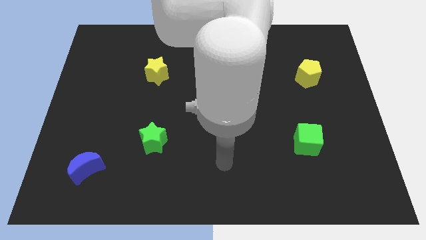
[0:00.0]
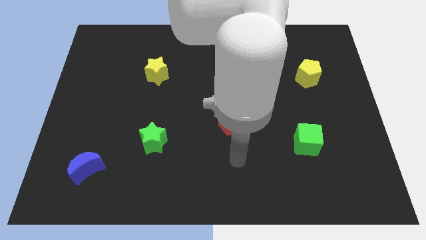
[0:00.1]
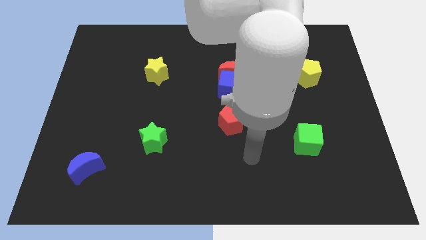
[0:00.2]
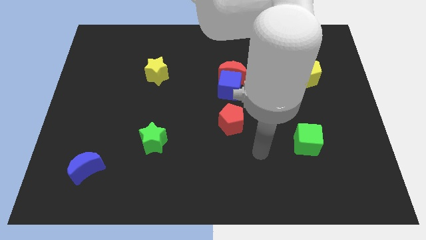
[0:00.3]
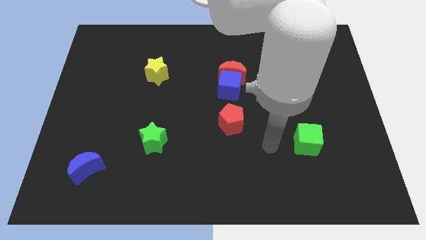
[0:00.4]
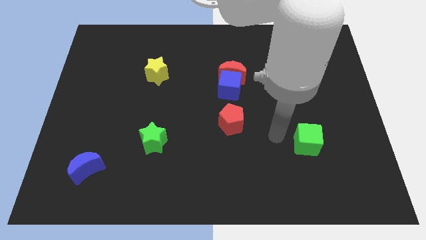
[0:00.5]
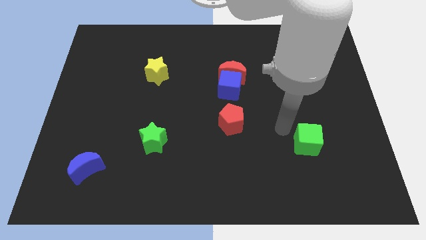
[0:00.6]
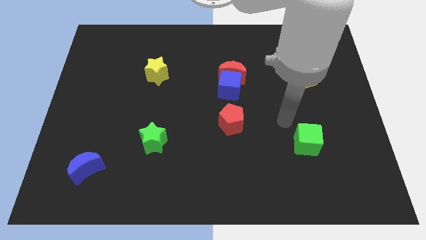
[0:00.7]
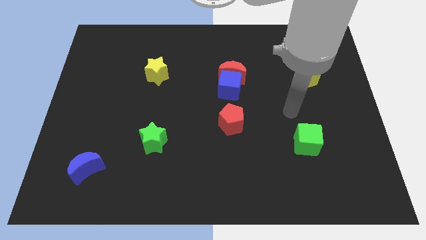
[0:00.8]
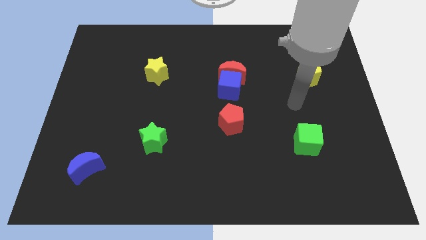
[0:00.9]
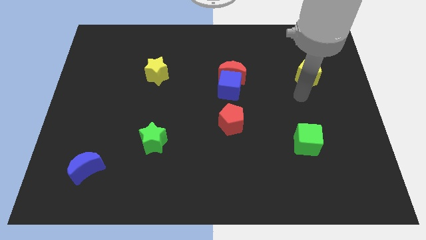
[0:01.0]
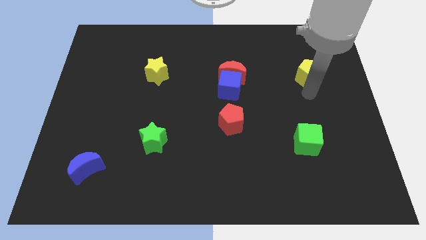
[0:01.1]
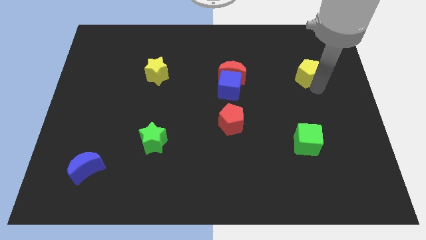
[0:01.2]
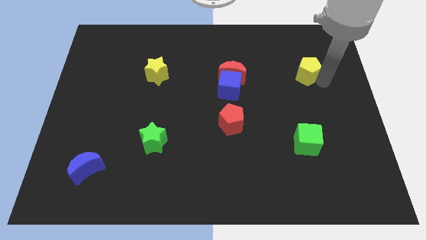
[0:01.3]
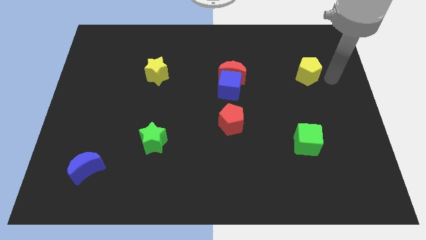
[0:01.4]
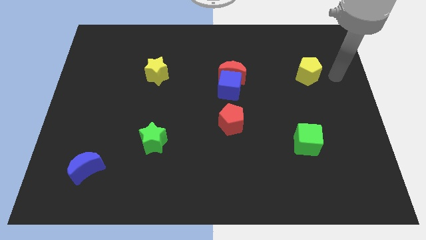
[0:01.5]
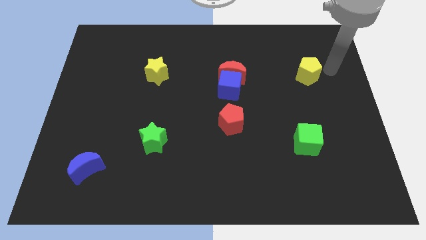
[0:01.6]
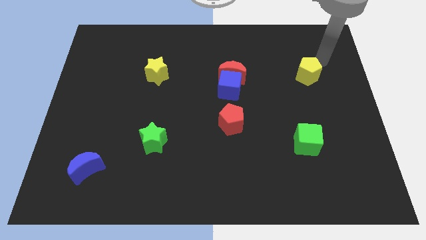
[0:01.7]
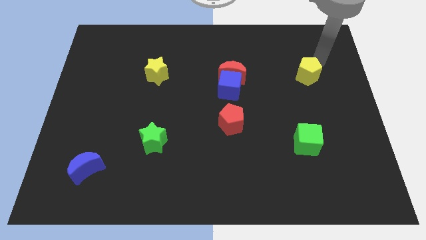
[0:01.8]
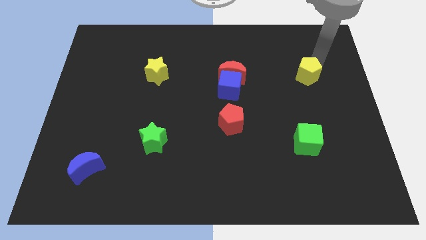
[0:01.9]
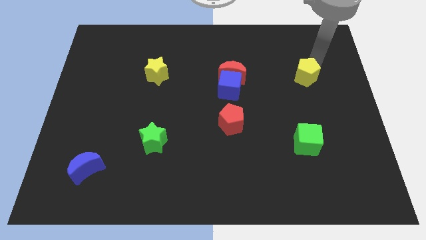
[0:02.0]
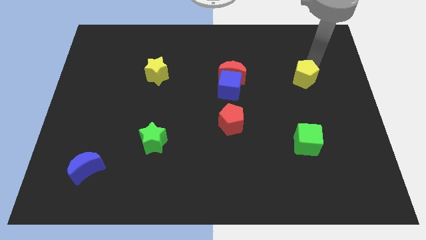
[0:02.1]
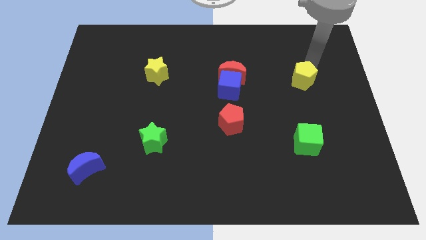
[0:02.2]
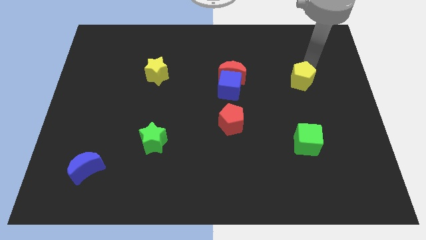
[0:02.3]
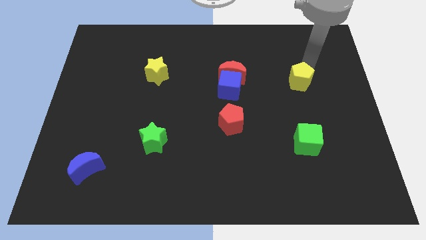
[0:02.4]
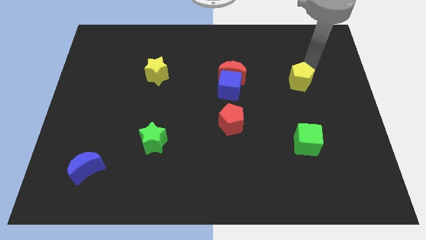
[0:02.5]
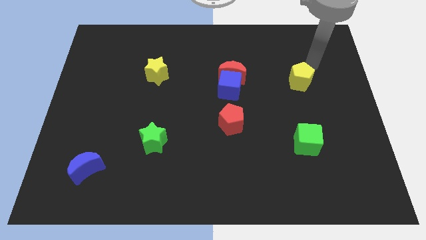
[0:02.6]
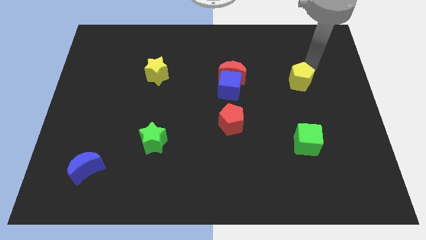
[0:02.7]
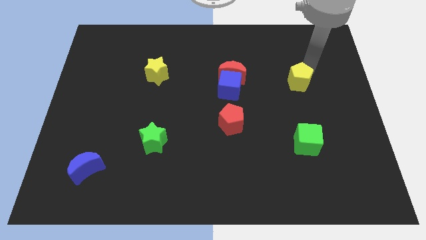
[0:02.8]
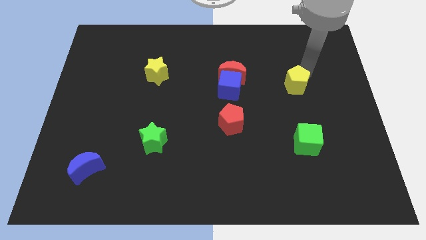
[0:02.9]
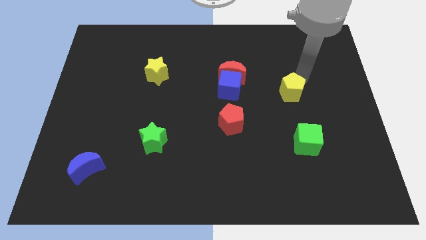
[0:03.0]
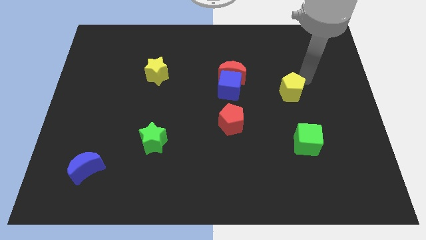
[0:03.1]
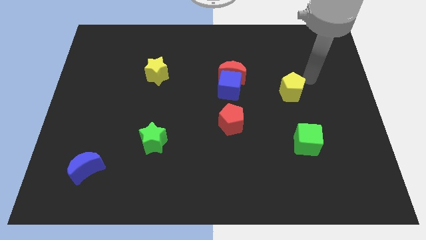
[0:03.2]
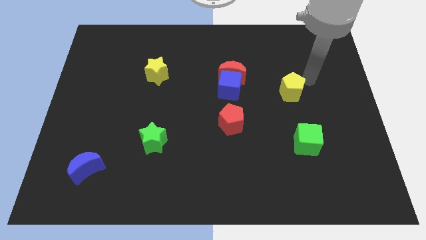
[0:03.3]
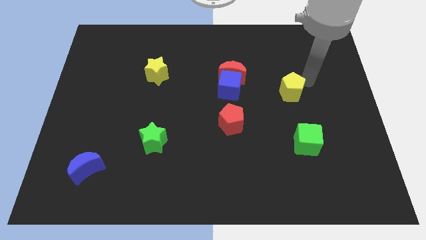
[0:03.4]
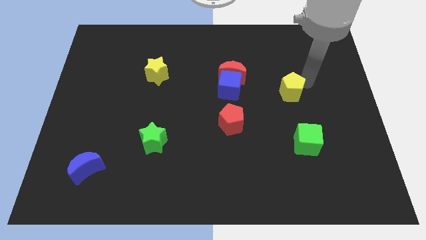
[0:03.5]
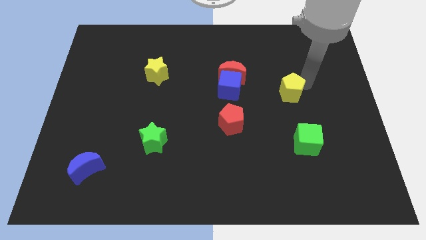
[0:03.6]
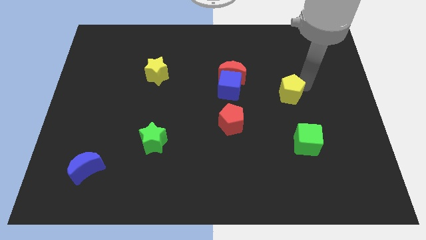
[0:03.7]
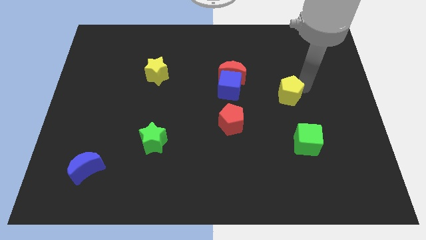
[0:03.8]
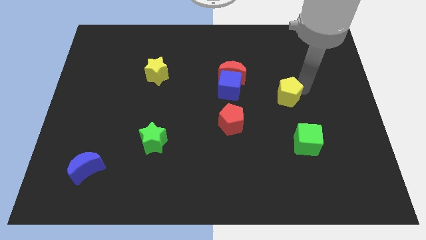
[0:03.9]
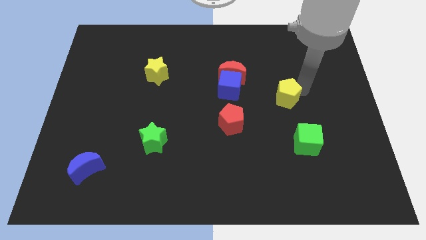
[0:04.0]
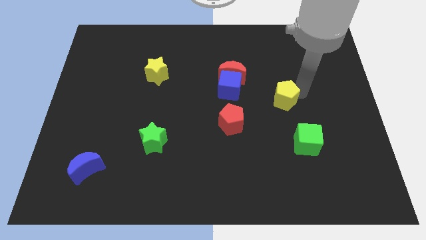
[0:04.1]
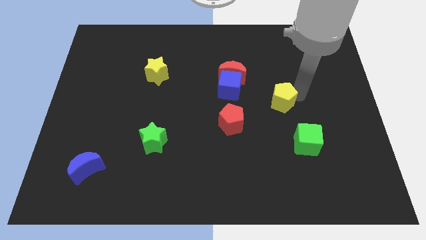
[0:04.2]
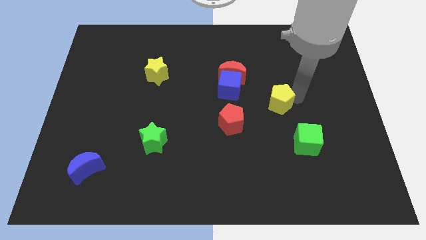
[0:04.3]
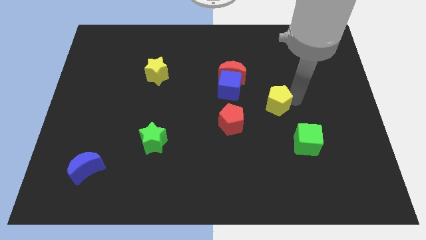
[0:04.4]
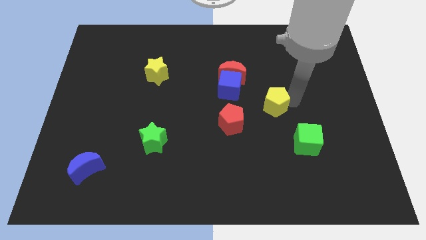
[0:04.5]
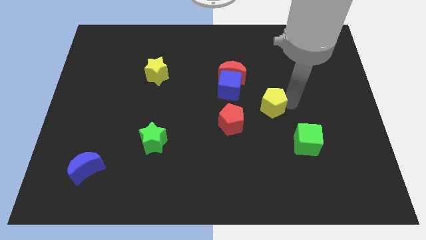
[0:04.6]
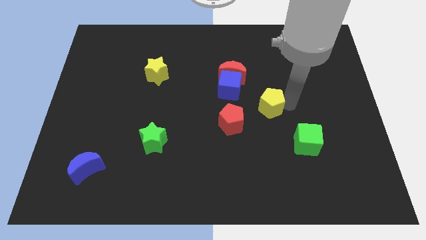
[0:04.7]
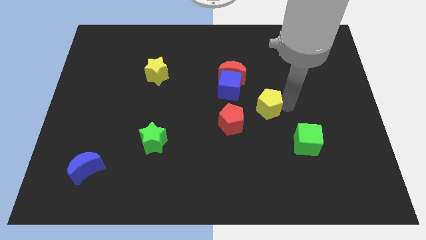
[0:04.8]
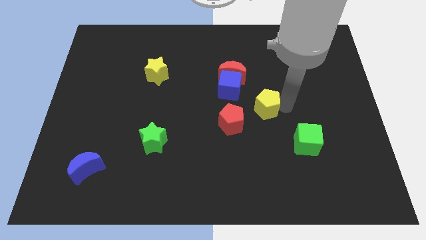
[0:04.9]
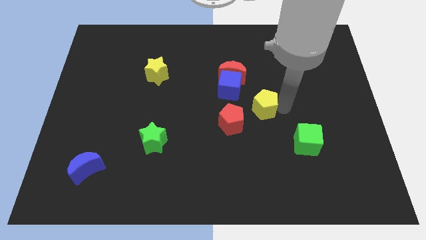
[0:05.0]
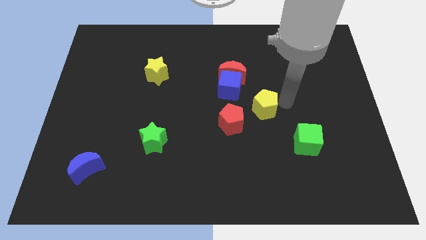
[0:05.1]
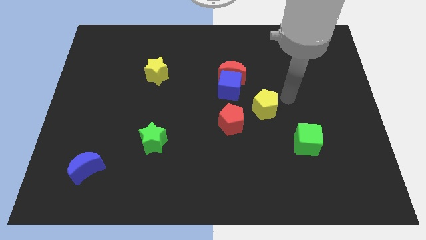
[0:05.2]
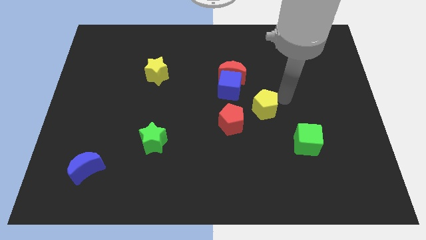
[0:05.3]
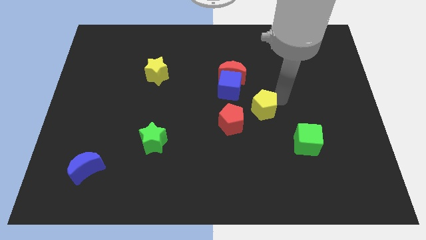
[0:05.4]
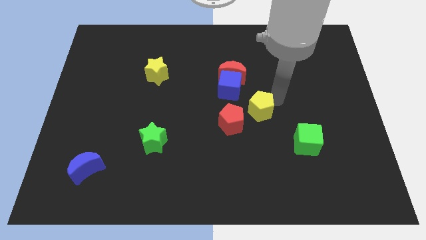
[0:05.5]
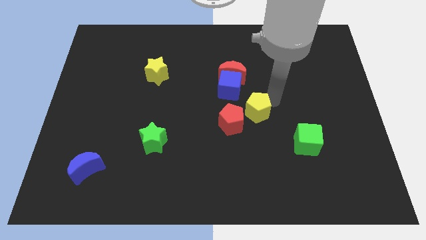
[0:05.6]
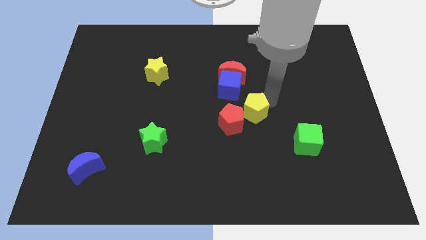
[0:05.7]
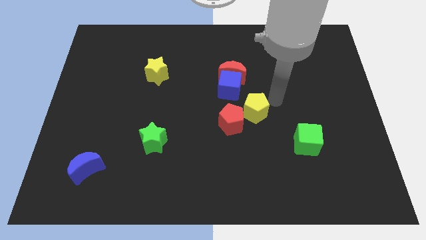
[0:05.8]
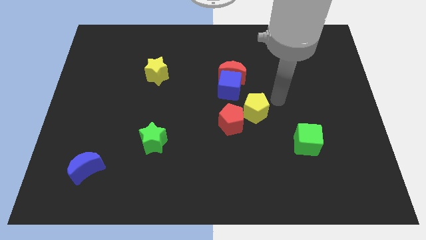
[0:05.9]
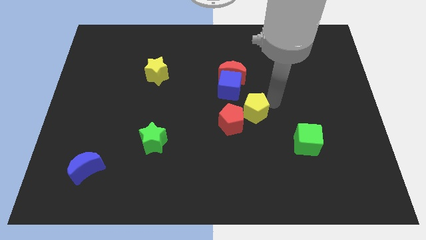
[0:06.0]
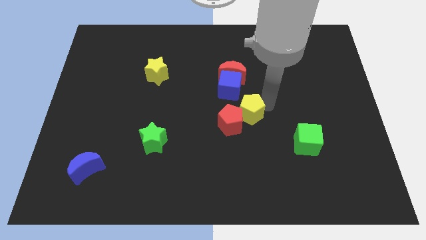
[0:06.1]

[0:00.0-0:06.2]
slide the yellow pentagon to the red pentagon

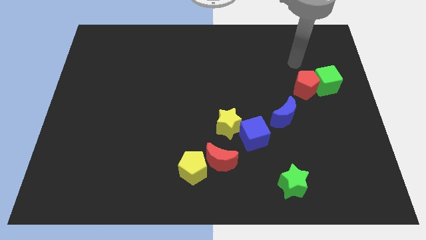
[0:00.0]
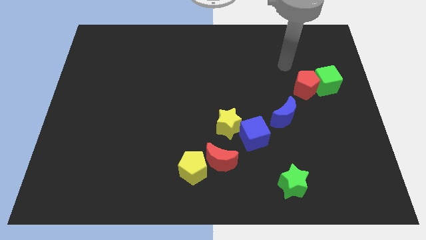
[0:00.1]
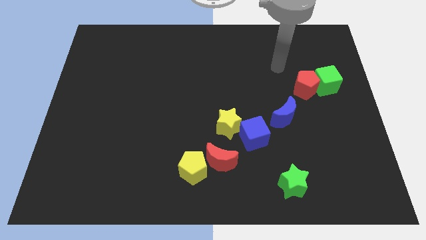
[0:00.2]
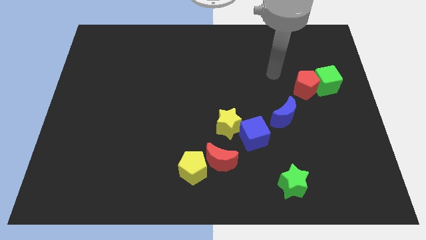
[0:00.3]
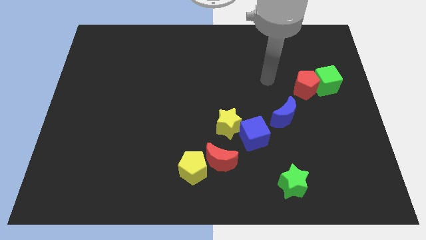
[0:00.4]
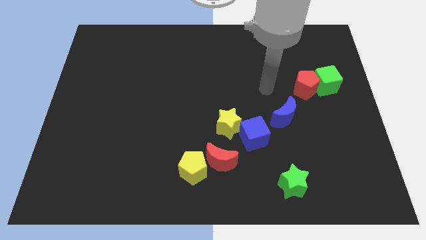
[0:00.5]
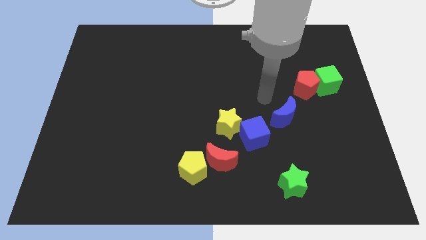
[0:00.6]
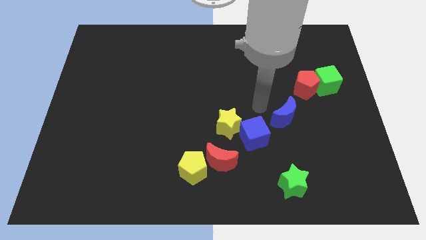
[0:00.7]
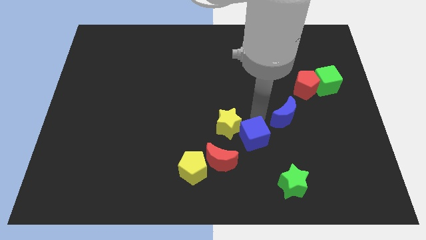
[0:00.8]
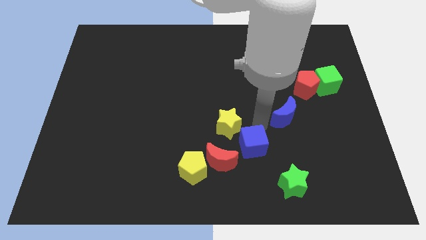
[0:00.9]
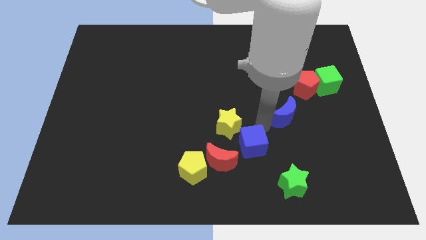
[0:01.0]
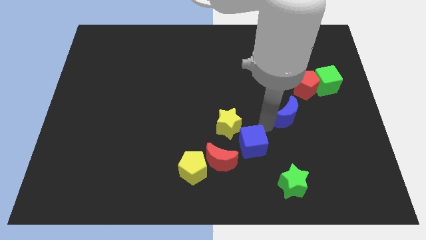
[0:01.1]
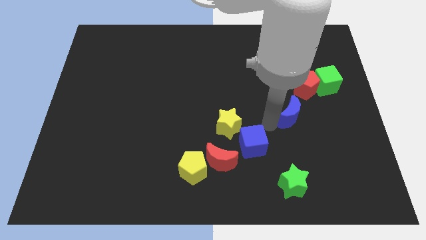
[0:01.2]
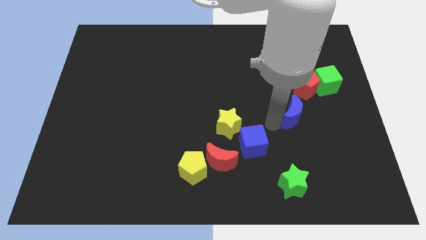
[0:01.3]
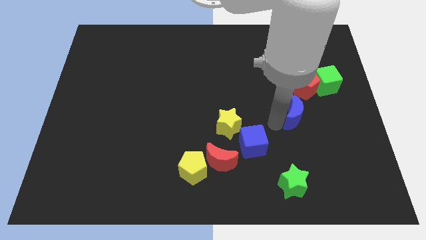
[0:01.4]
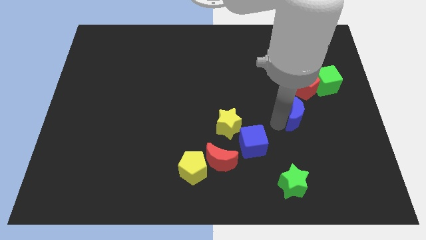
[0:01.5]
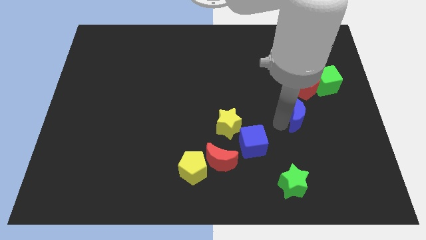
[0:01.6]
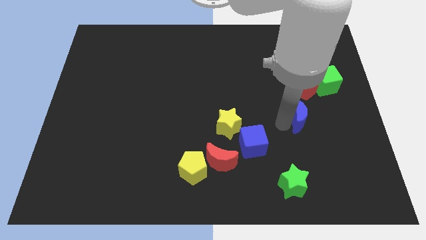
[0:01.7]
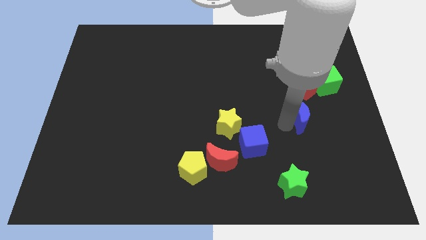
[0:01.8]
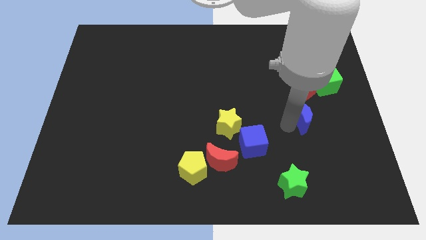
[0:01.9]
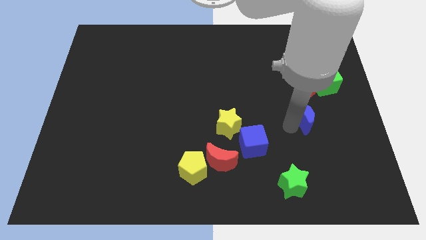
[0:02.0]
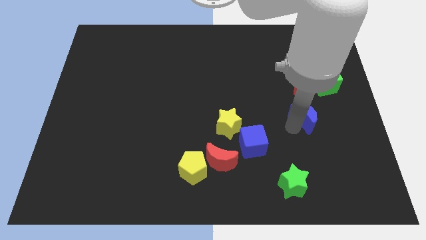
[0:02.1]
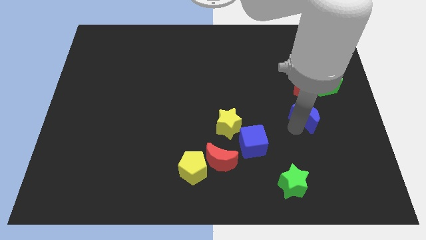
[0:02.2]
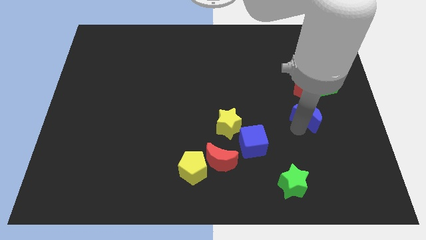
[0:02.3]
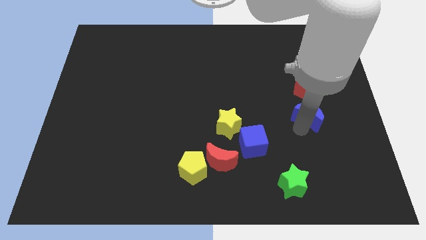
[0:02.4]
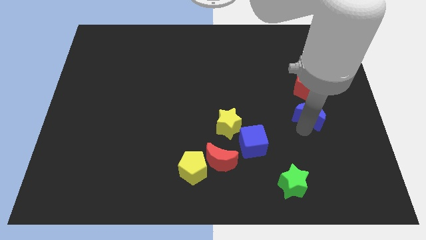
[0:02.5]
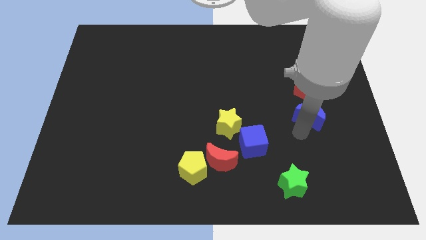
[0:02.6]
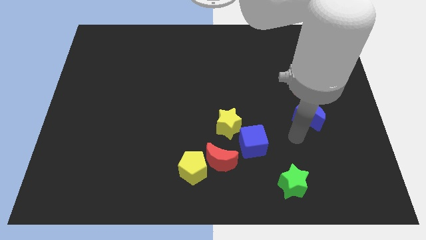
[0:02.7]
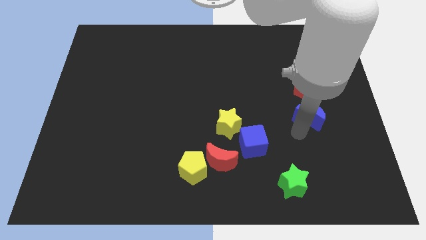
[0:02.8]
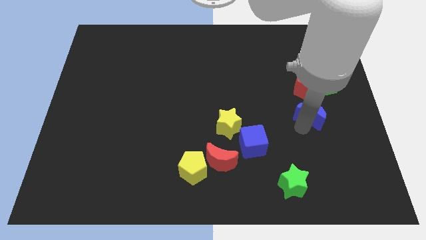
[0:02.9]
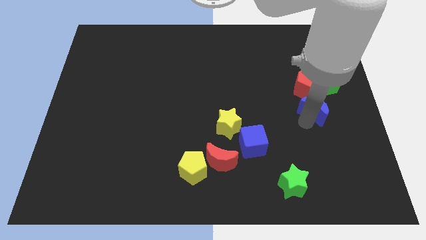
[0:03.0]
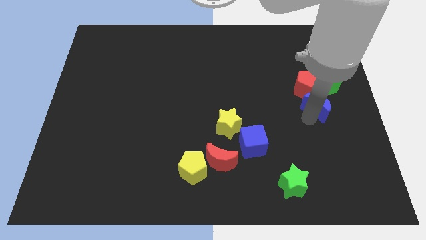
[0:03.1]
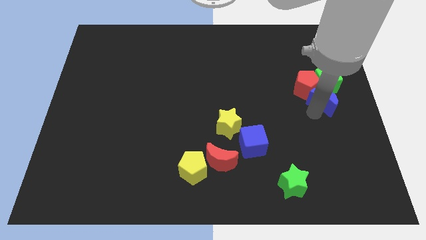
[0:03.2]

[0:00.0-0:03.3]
slide the blue moon close to the green cube
